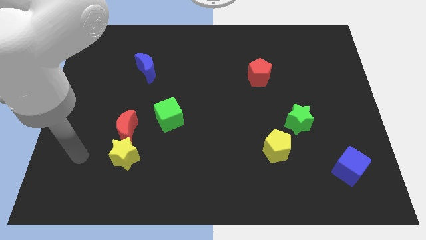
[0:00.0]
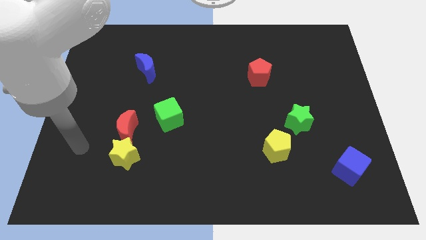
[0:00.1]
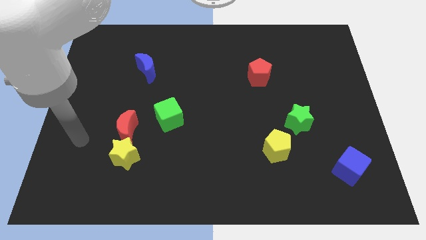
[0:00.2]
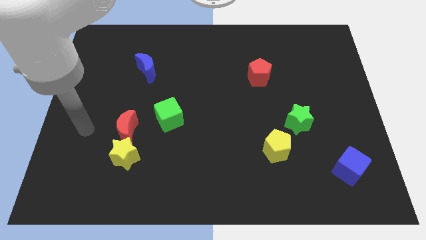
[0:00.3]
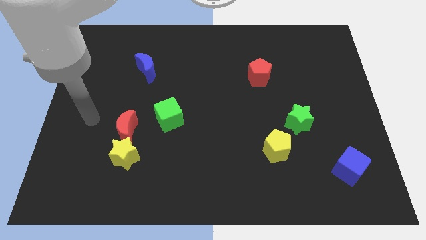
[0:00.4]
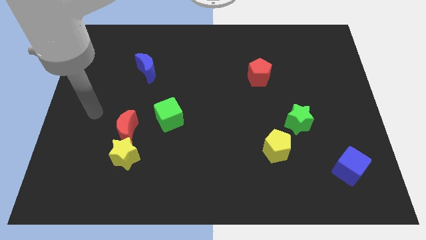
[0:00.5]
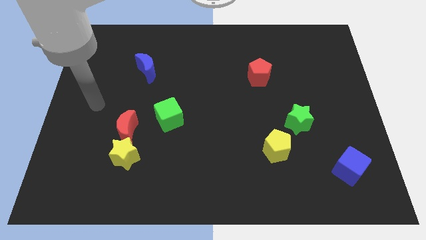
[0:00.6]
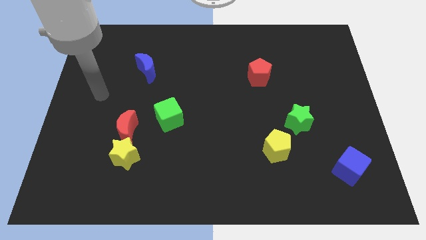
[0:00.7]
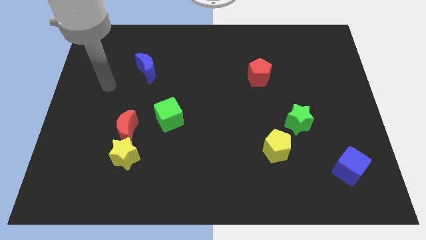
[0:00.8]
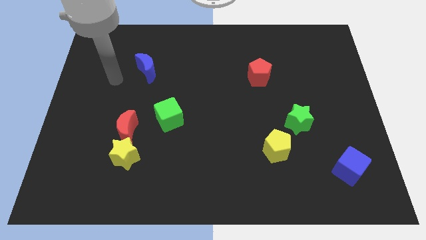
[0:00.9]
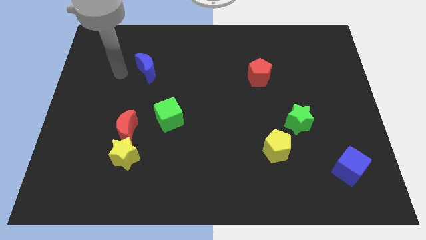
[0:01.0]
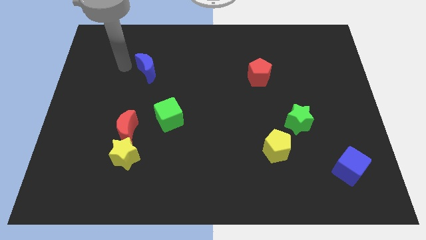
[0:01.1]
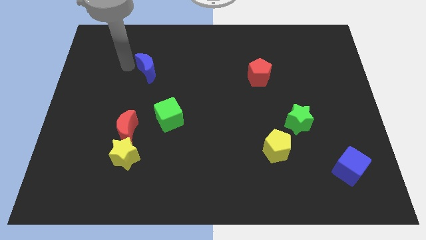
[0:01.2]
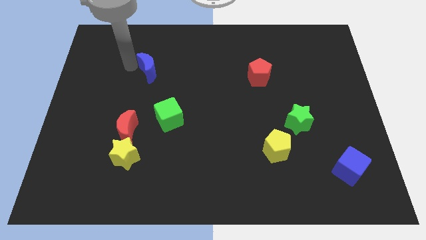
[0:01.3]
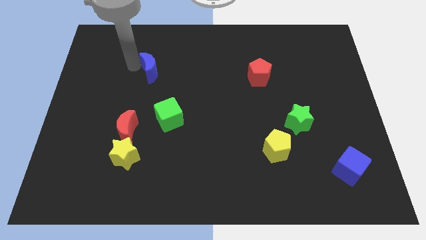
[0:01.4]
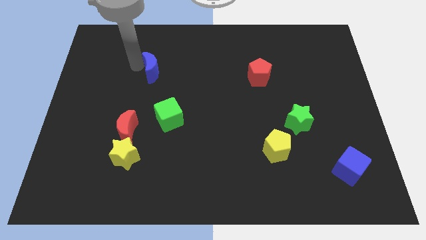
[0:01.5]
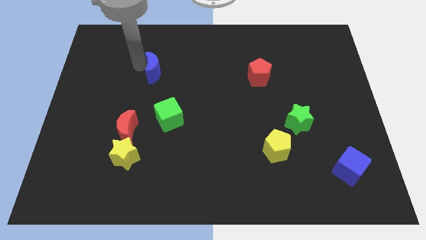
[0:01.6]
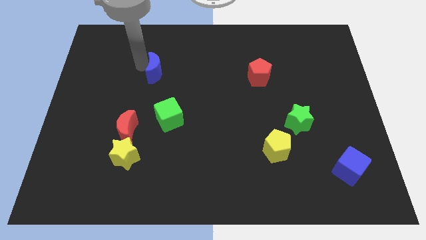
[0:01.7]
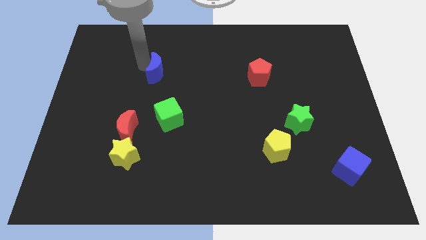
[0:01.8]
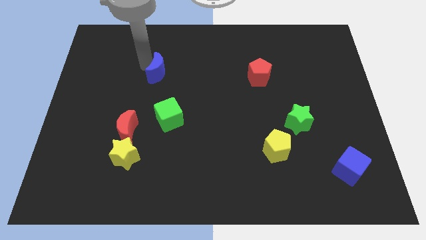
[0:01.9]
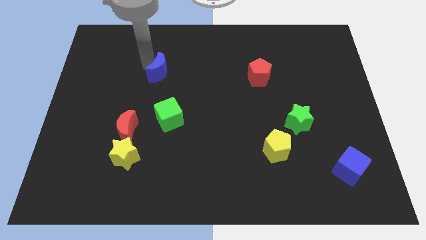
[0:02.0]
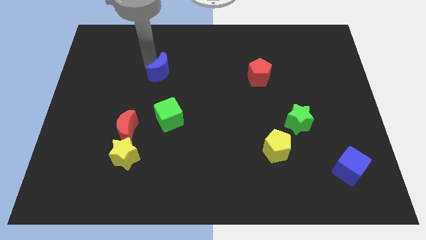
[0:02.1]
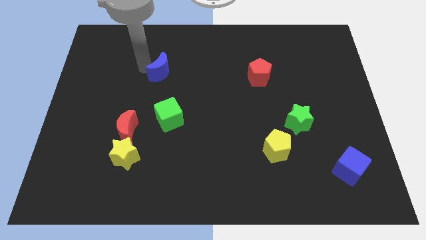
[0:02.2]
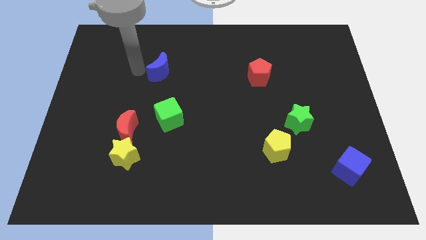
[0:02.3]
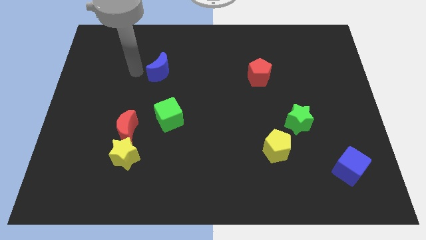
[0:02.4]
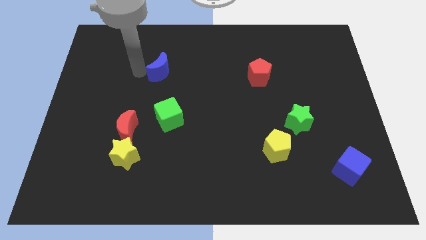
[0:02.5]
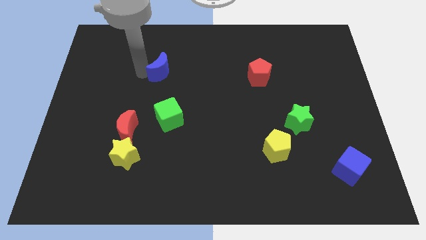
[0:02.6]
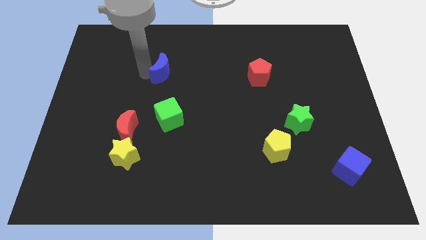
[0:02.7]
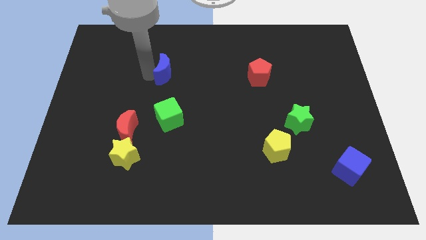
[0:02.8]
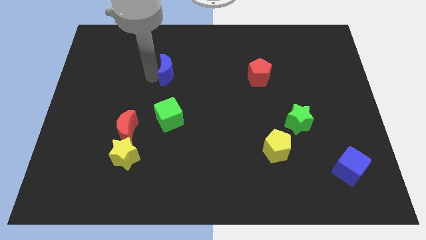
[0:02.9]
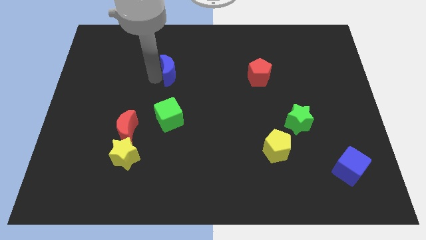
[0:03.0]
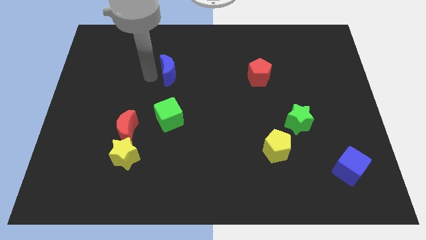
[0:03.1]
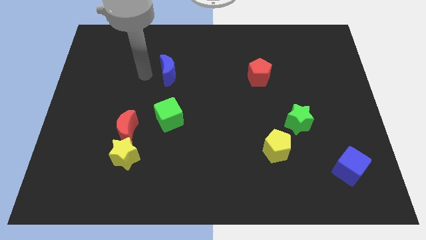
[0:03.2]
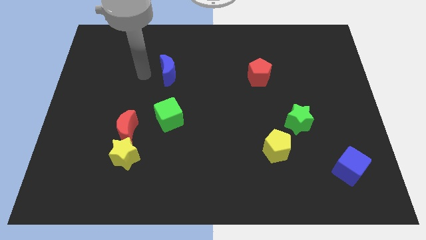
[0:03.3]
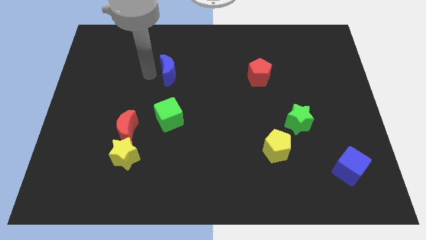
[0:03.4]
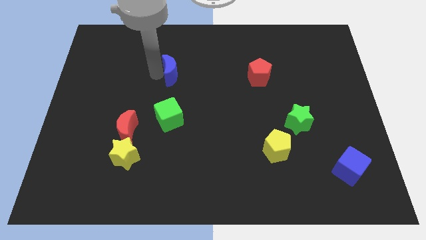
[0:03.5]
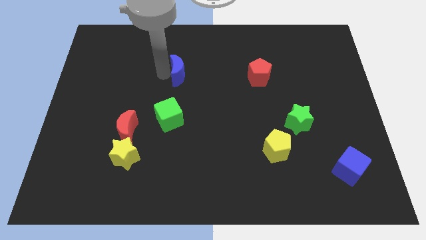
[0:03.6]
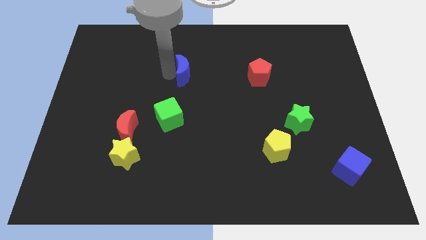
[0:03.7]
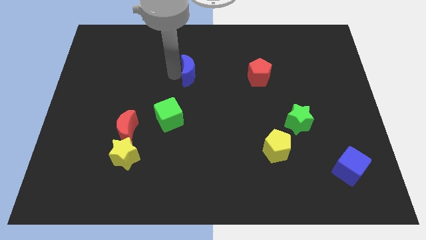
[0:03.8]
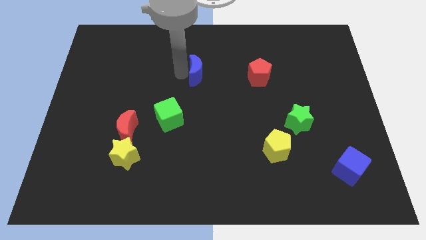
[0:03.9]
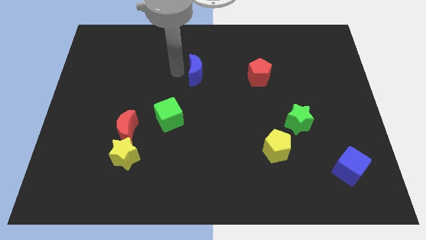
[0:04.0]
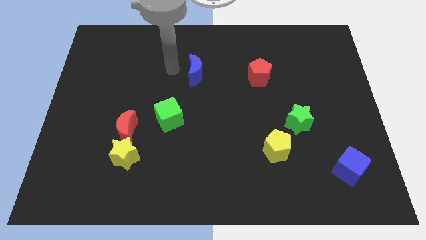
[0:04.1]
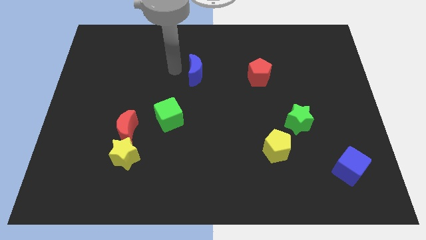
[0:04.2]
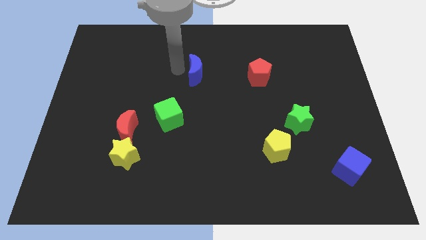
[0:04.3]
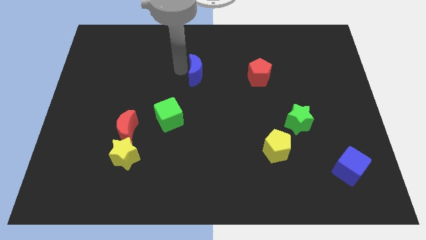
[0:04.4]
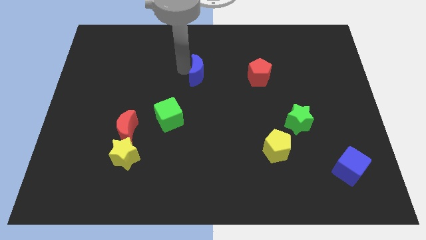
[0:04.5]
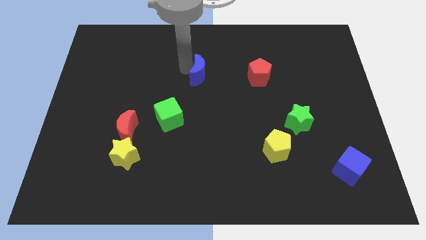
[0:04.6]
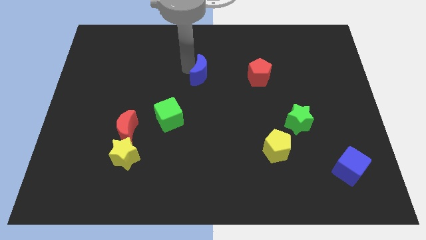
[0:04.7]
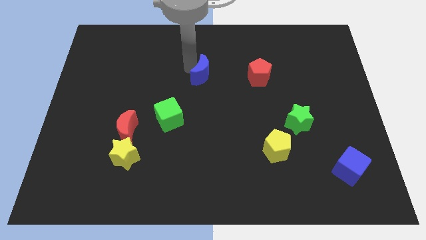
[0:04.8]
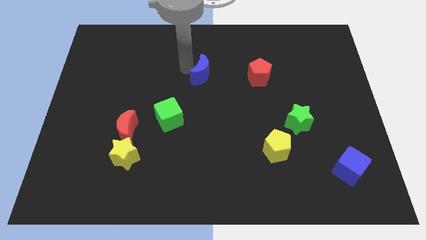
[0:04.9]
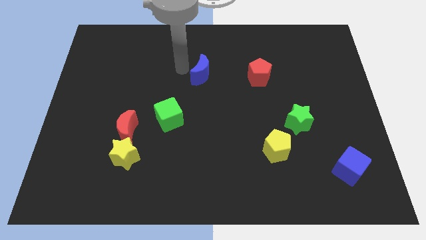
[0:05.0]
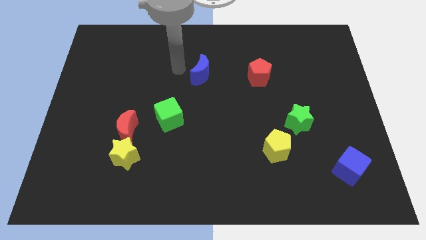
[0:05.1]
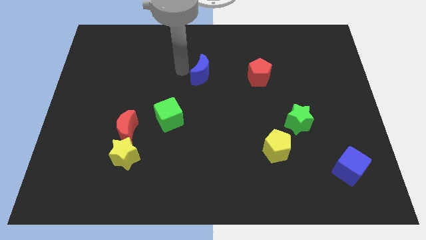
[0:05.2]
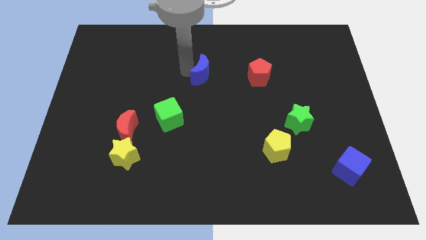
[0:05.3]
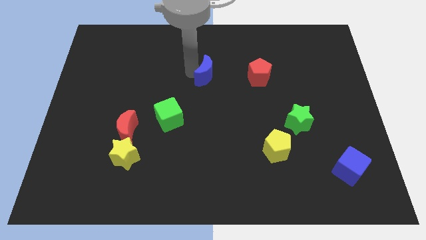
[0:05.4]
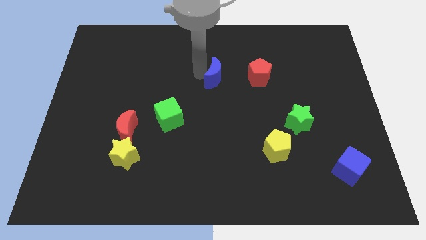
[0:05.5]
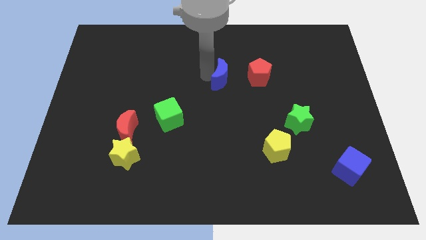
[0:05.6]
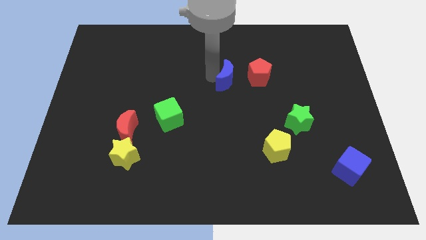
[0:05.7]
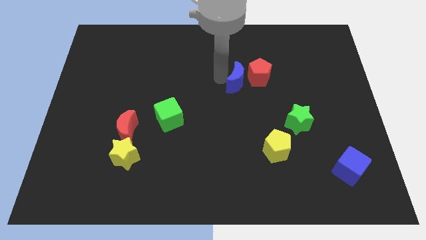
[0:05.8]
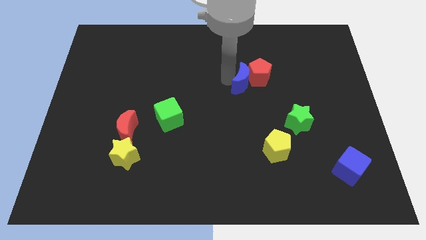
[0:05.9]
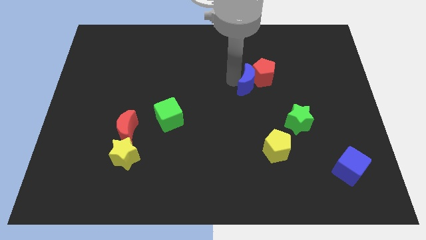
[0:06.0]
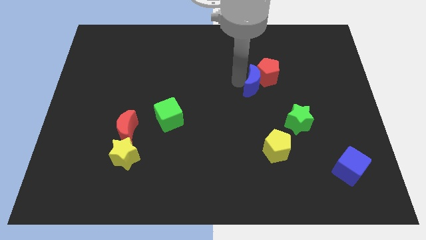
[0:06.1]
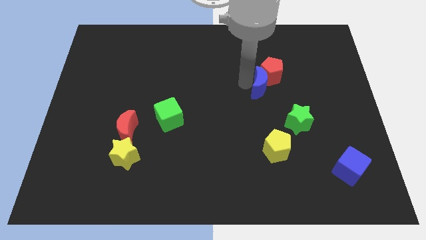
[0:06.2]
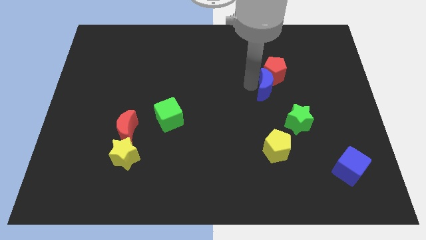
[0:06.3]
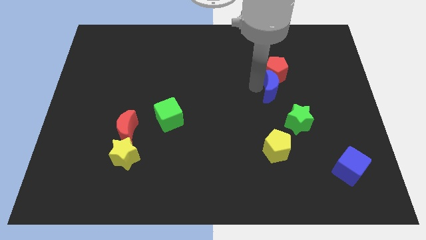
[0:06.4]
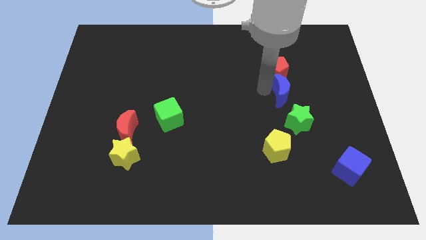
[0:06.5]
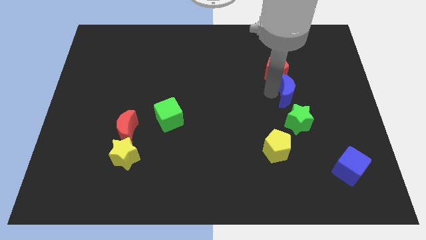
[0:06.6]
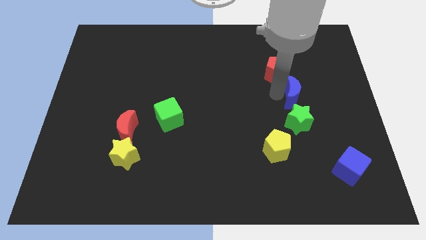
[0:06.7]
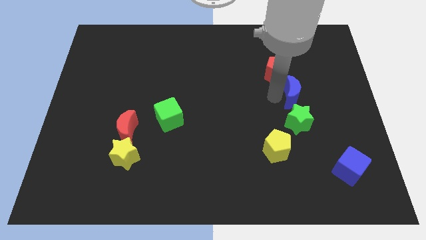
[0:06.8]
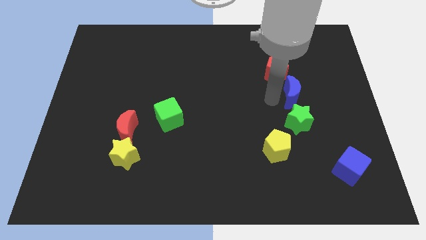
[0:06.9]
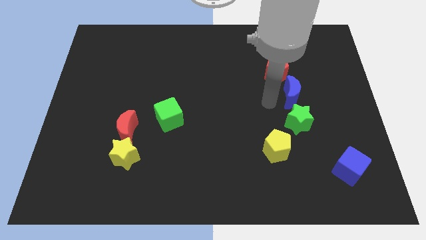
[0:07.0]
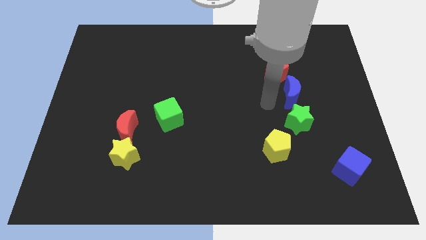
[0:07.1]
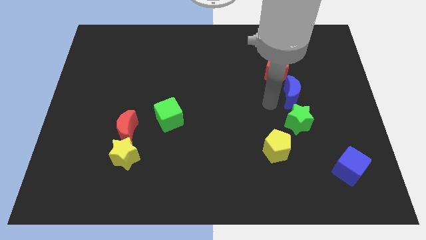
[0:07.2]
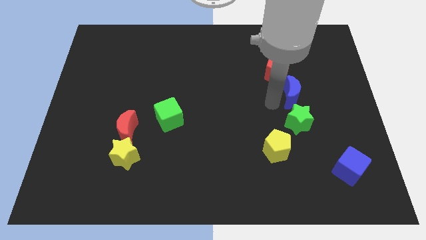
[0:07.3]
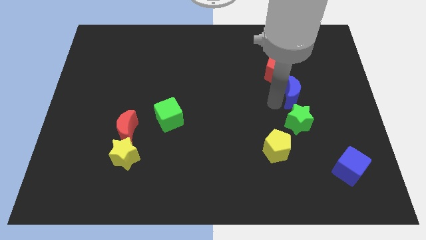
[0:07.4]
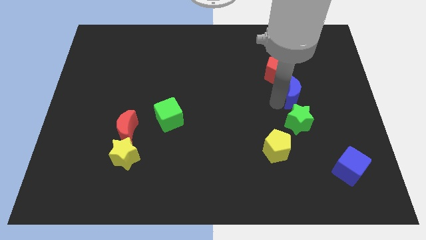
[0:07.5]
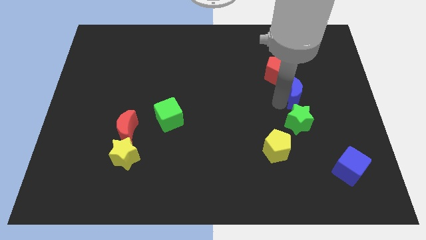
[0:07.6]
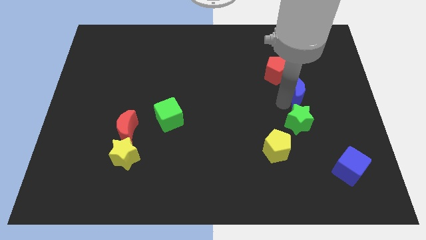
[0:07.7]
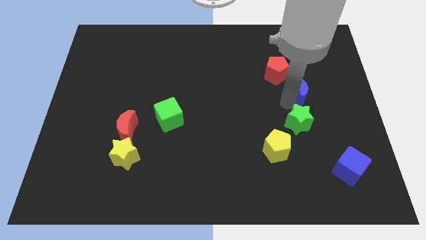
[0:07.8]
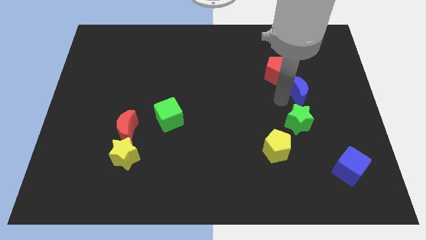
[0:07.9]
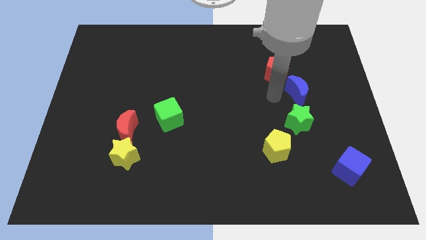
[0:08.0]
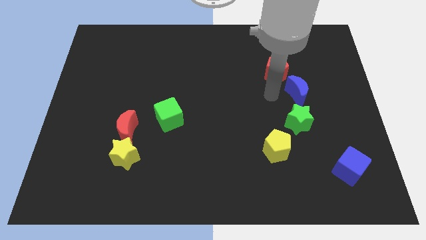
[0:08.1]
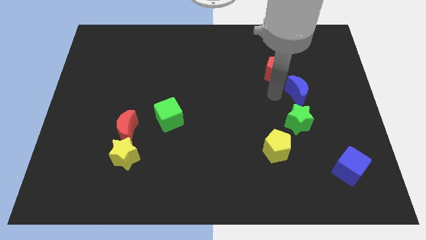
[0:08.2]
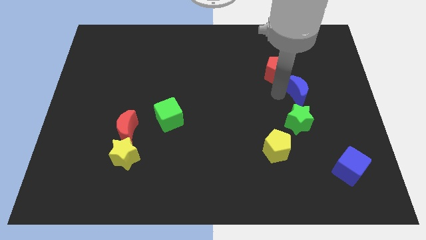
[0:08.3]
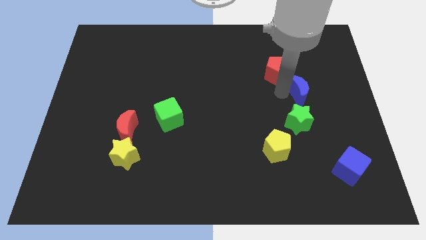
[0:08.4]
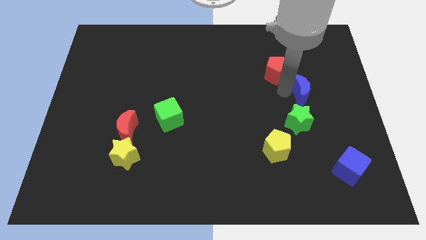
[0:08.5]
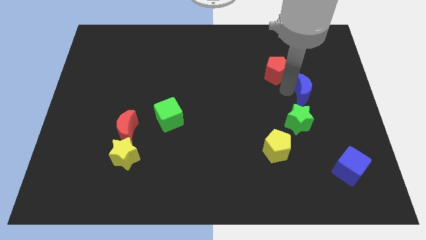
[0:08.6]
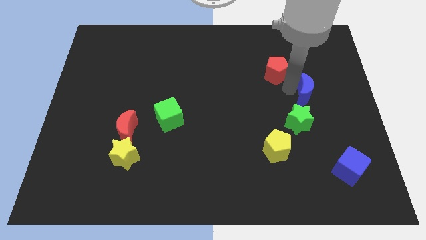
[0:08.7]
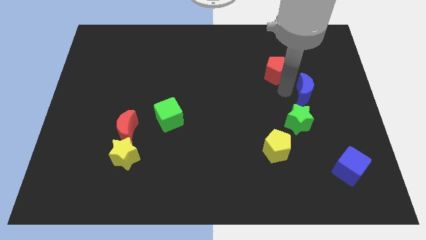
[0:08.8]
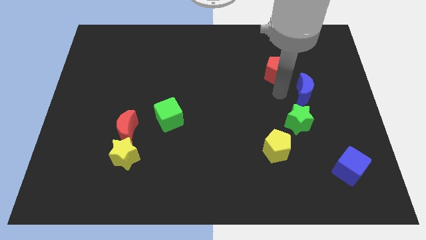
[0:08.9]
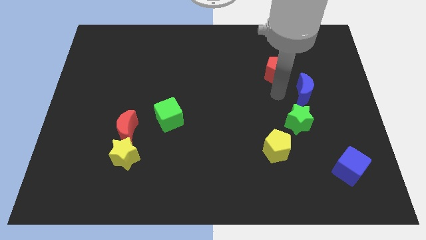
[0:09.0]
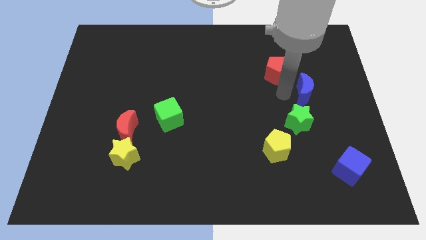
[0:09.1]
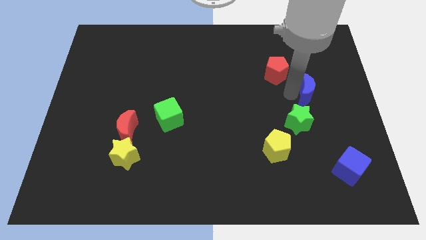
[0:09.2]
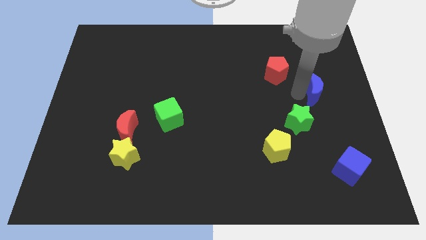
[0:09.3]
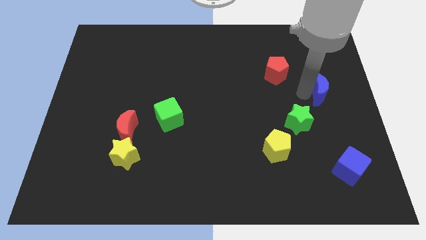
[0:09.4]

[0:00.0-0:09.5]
move the blue moon to the right side
